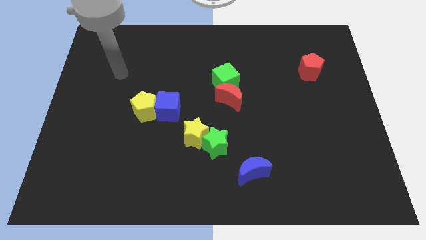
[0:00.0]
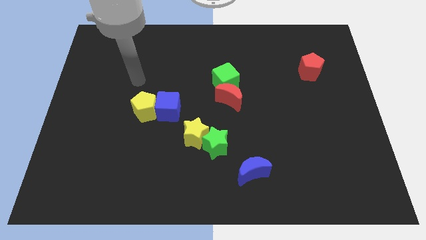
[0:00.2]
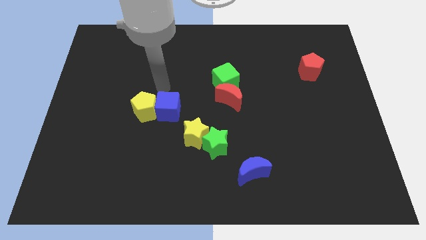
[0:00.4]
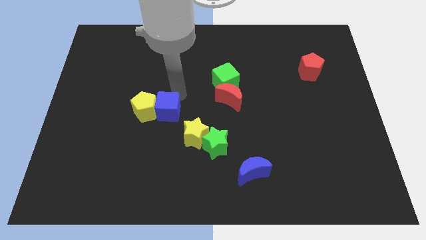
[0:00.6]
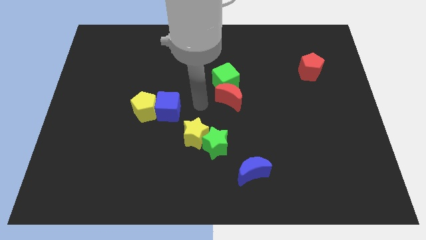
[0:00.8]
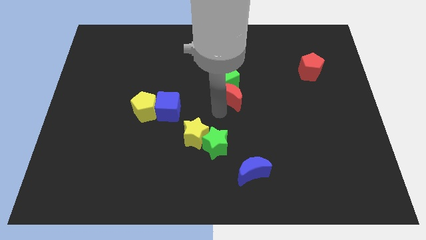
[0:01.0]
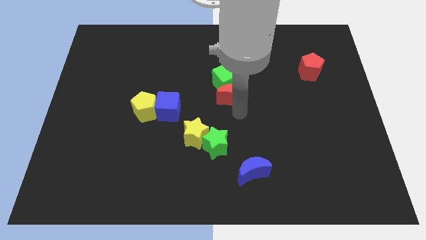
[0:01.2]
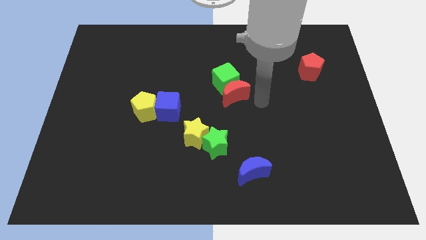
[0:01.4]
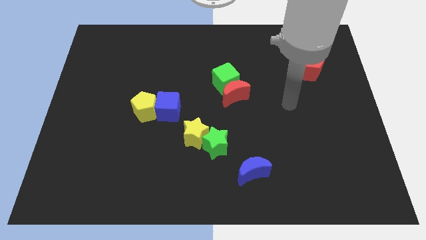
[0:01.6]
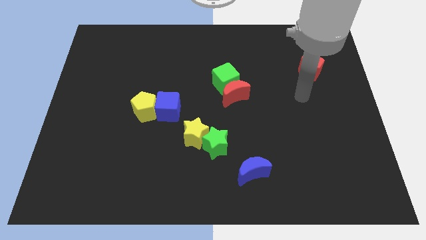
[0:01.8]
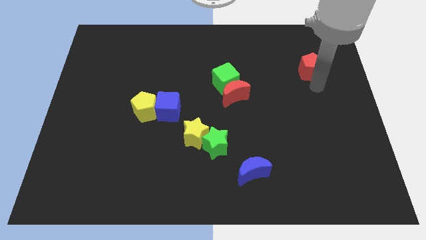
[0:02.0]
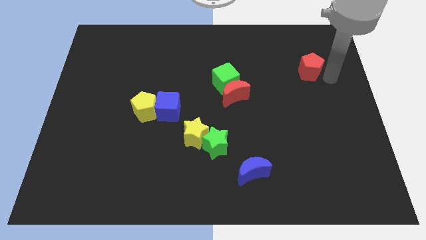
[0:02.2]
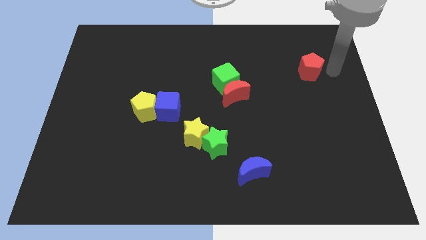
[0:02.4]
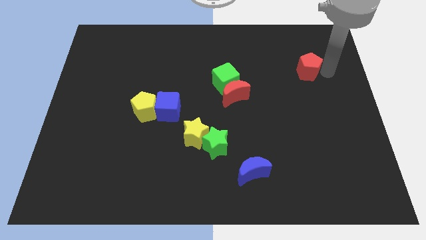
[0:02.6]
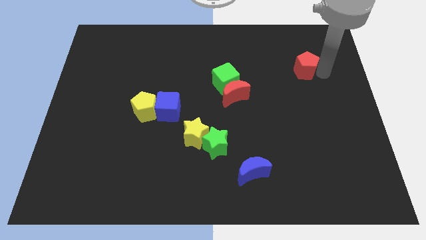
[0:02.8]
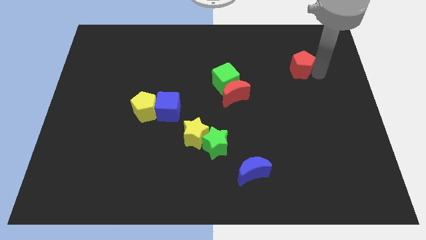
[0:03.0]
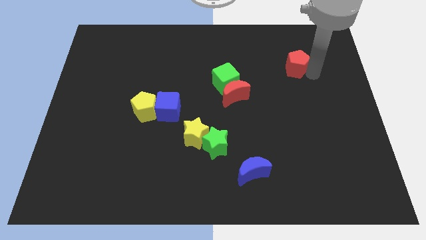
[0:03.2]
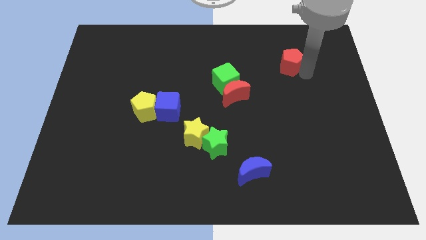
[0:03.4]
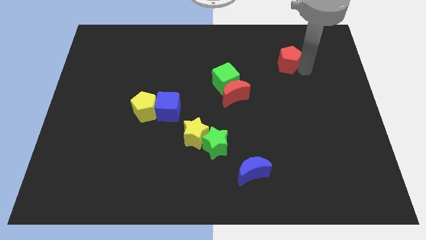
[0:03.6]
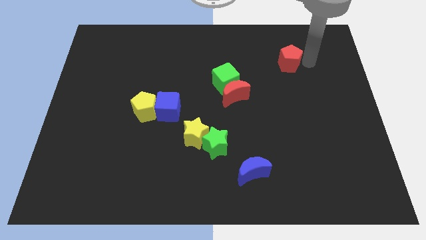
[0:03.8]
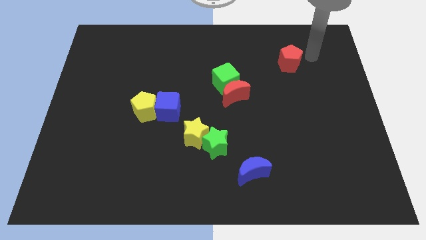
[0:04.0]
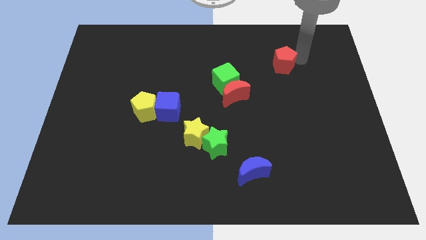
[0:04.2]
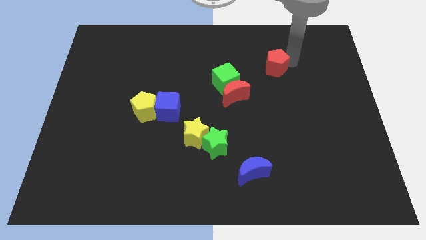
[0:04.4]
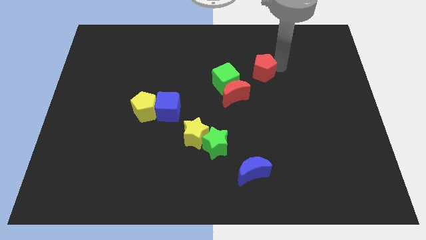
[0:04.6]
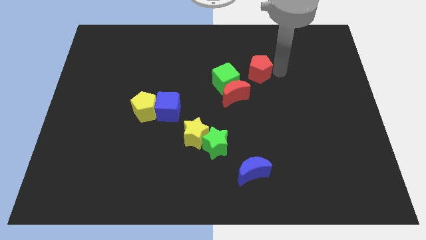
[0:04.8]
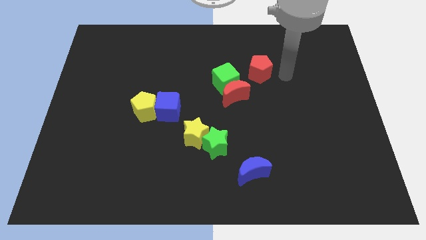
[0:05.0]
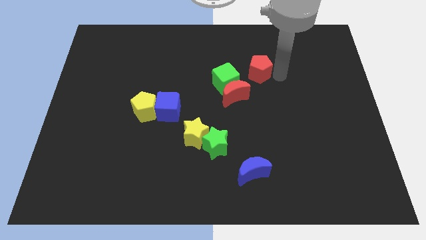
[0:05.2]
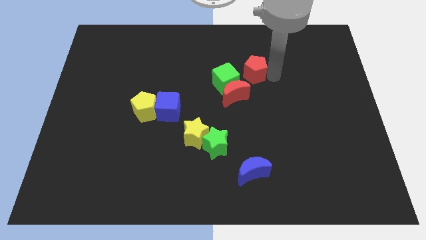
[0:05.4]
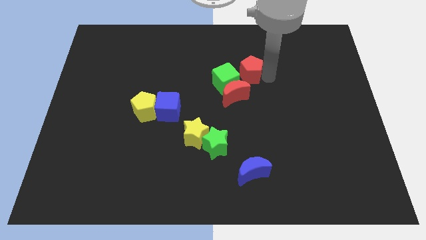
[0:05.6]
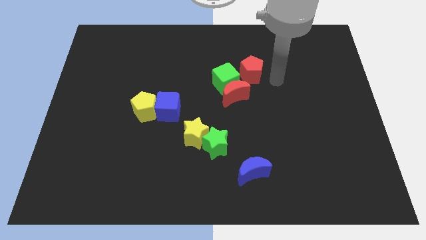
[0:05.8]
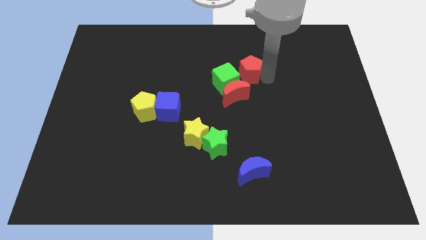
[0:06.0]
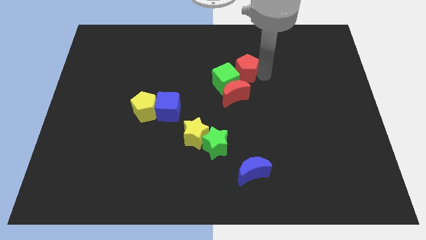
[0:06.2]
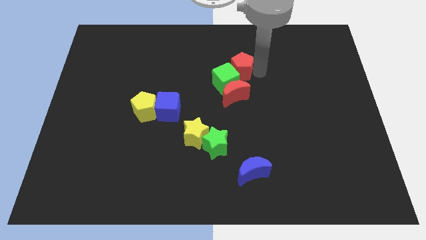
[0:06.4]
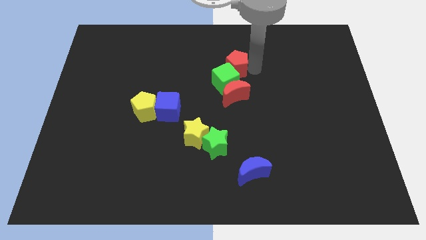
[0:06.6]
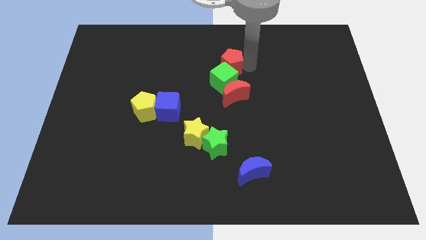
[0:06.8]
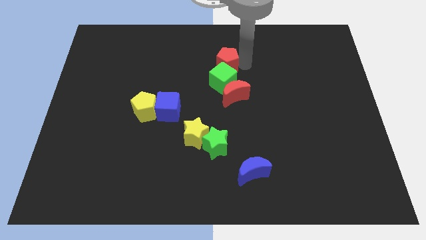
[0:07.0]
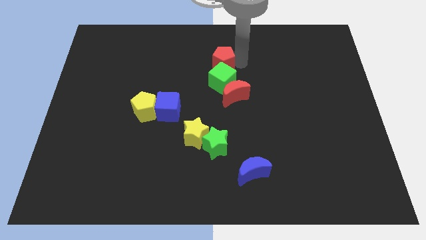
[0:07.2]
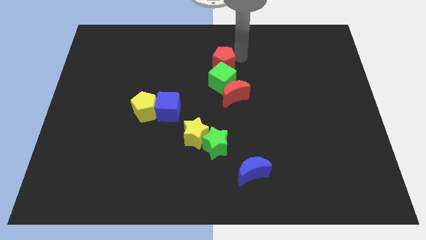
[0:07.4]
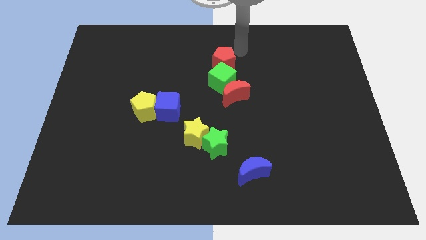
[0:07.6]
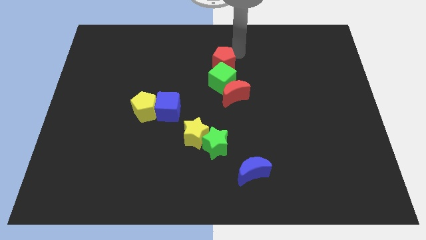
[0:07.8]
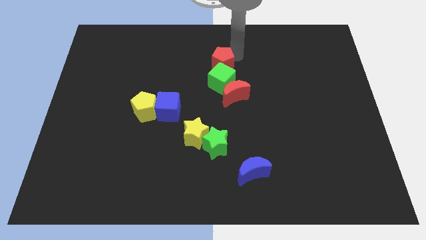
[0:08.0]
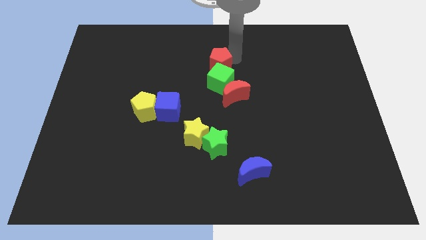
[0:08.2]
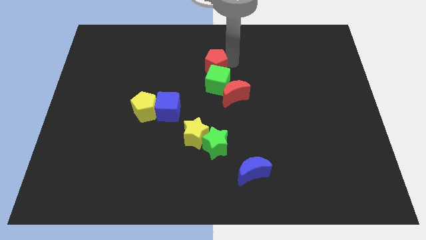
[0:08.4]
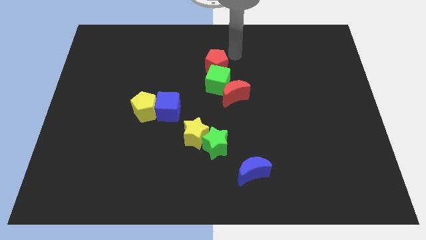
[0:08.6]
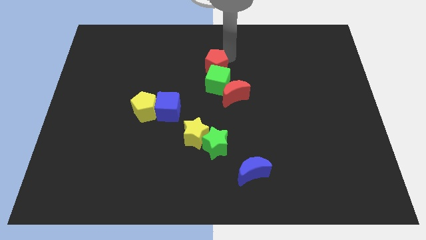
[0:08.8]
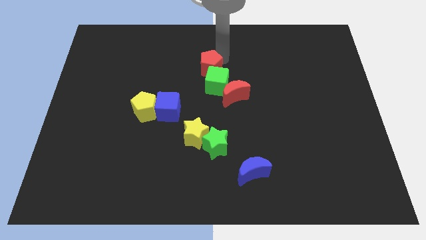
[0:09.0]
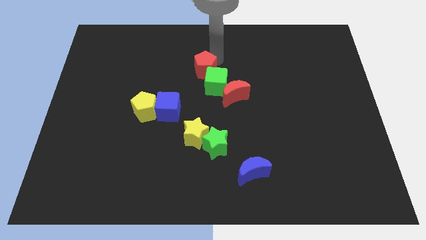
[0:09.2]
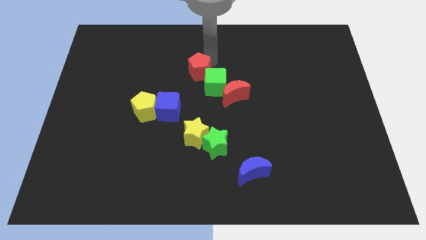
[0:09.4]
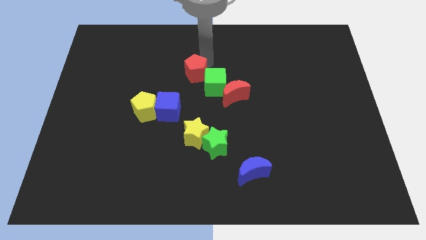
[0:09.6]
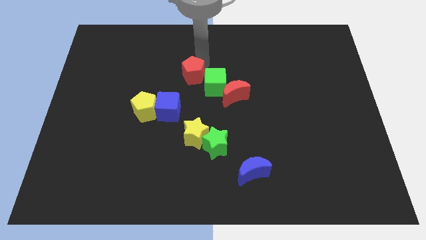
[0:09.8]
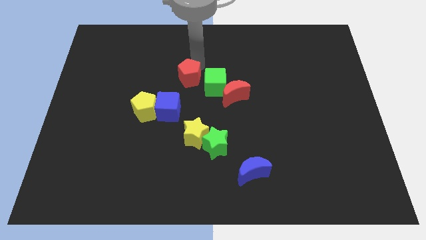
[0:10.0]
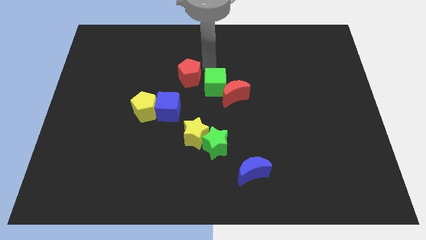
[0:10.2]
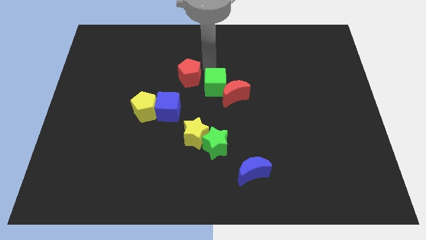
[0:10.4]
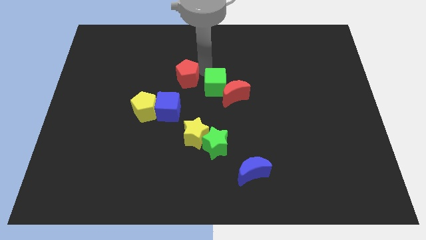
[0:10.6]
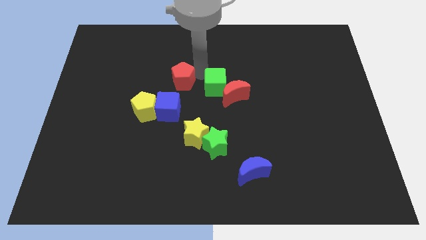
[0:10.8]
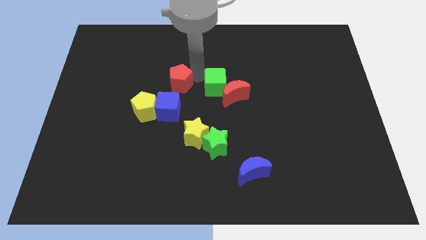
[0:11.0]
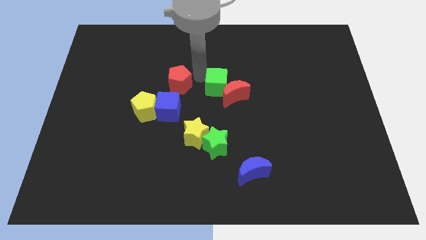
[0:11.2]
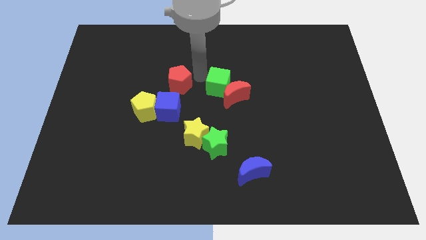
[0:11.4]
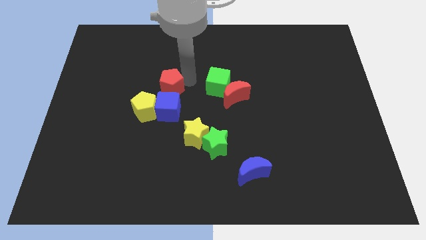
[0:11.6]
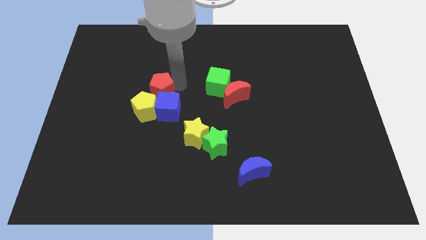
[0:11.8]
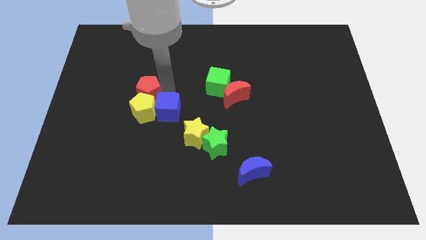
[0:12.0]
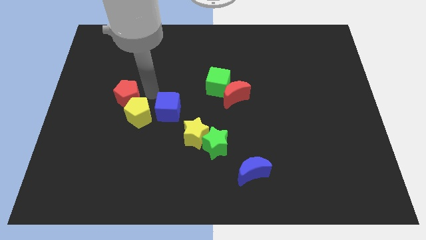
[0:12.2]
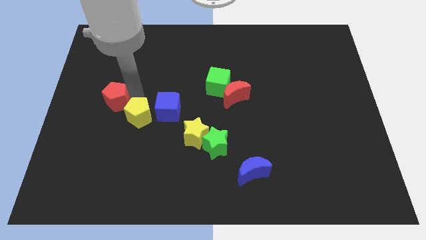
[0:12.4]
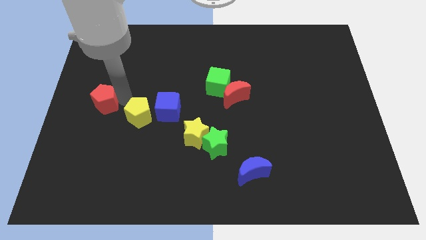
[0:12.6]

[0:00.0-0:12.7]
put the red pentagon to the center left

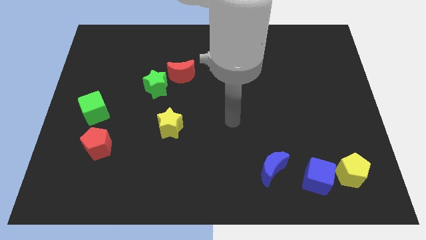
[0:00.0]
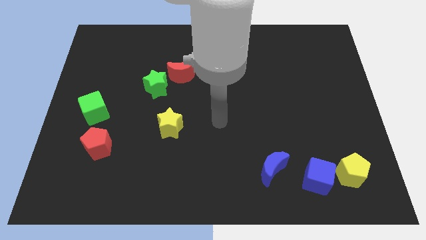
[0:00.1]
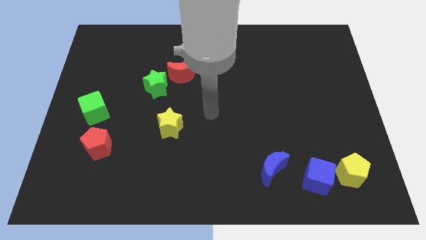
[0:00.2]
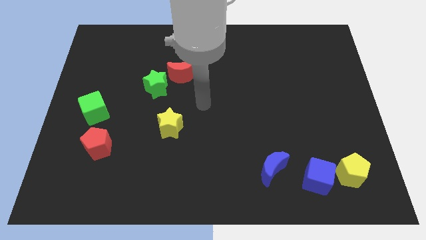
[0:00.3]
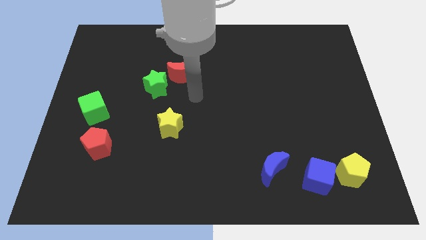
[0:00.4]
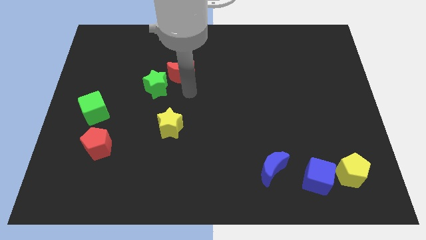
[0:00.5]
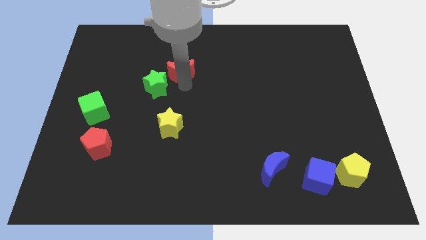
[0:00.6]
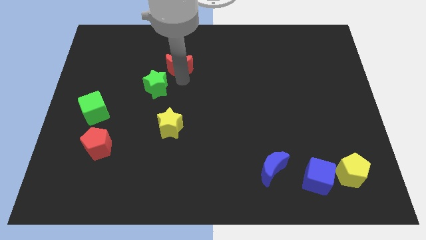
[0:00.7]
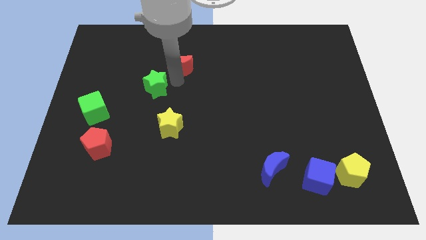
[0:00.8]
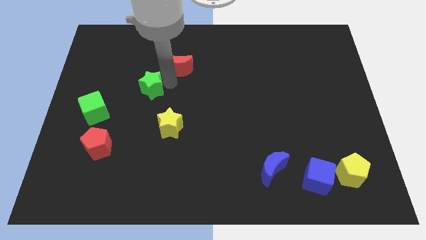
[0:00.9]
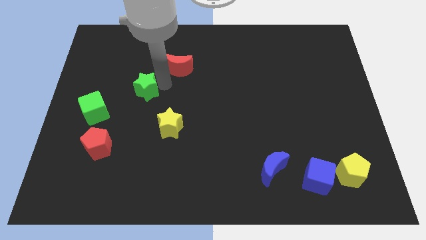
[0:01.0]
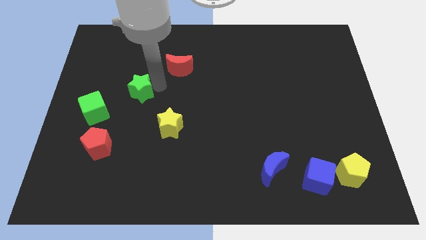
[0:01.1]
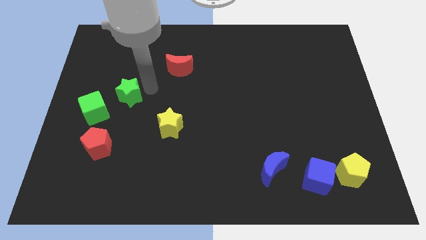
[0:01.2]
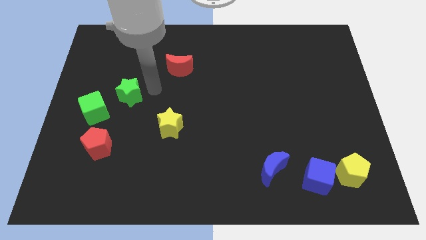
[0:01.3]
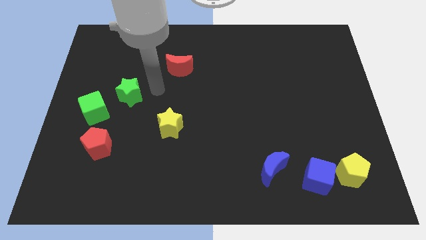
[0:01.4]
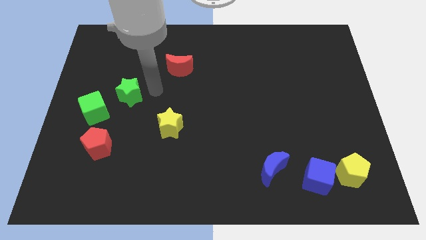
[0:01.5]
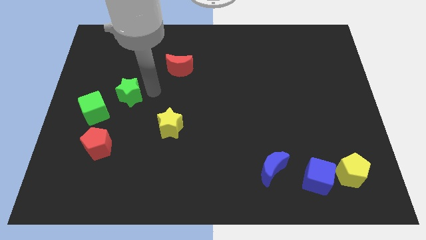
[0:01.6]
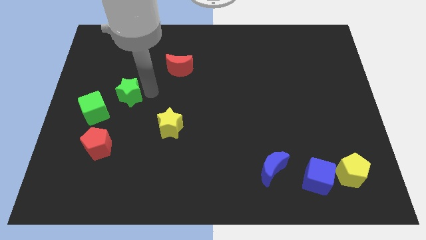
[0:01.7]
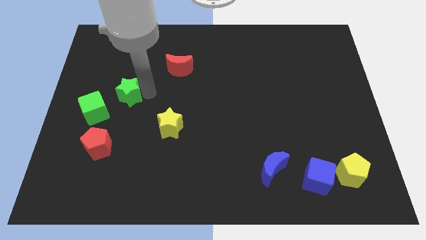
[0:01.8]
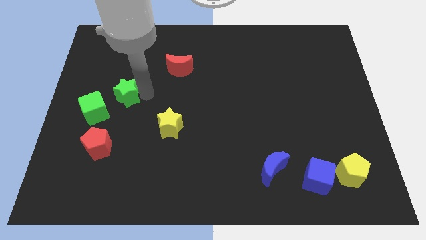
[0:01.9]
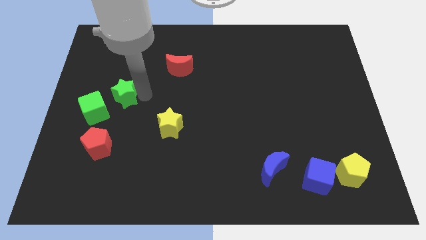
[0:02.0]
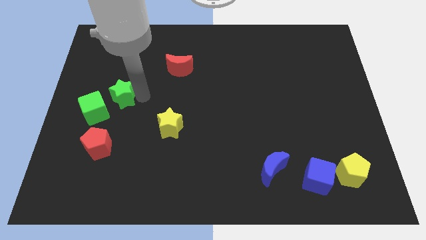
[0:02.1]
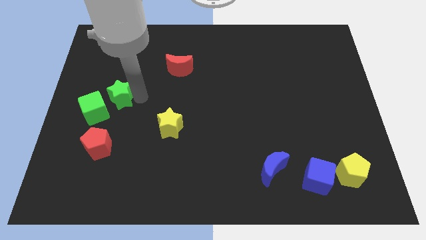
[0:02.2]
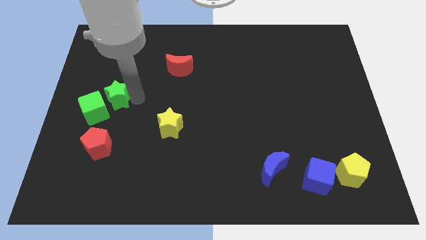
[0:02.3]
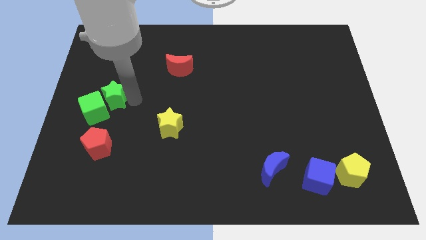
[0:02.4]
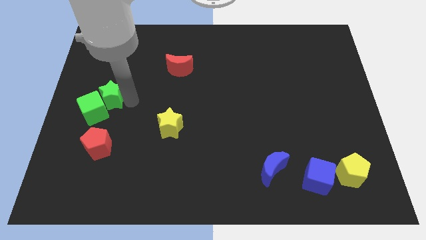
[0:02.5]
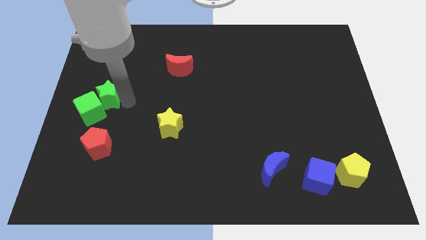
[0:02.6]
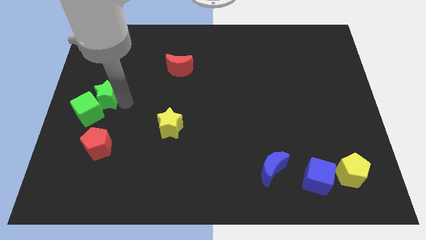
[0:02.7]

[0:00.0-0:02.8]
put the green star to the center left
